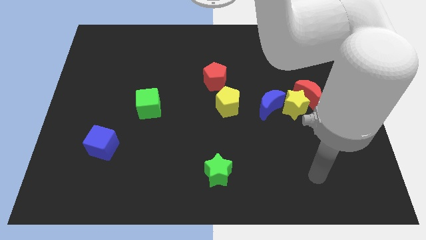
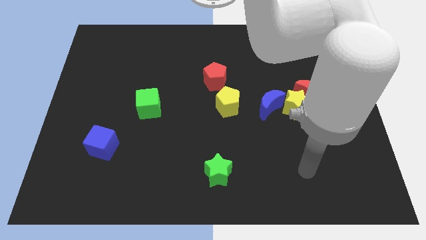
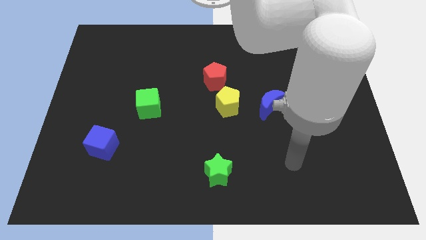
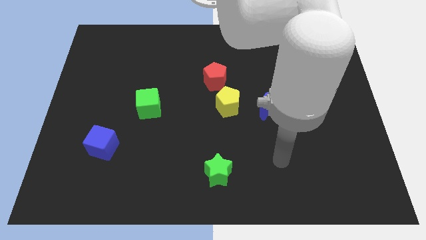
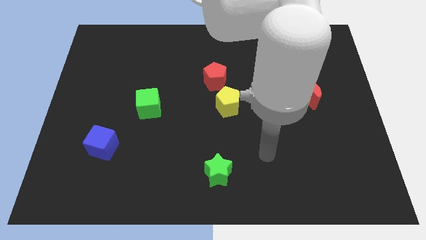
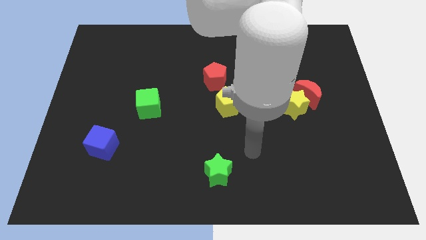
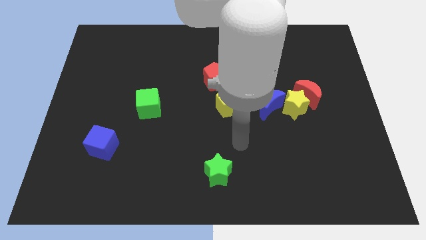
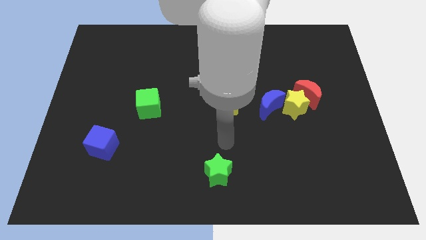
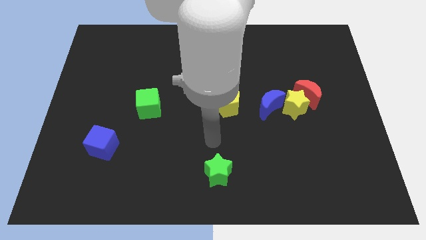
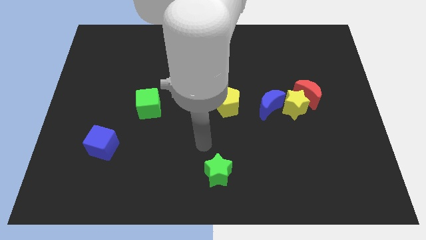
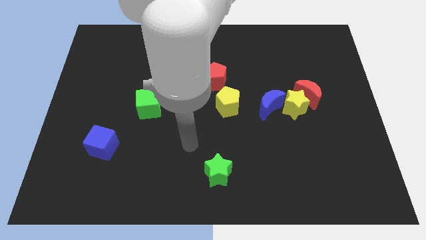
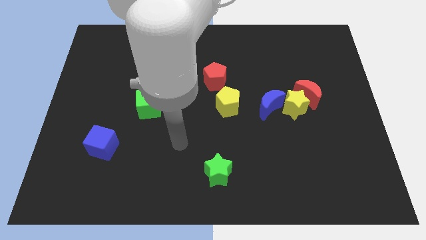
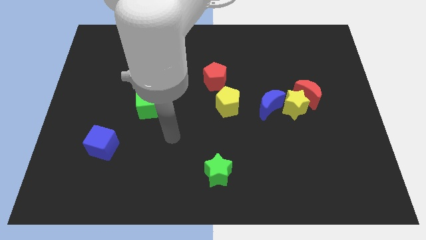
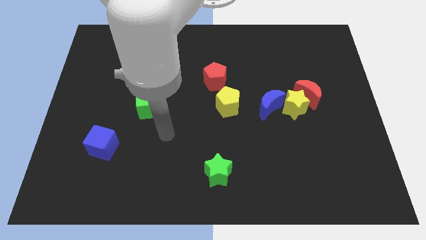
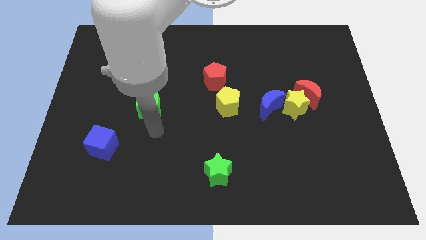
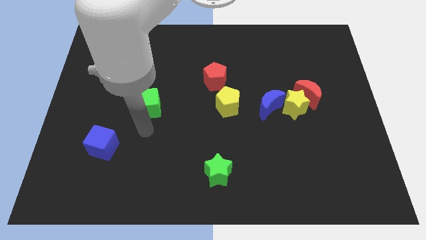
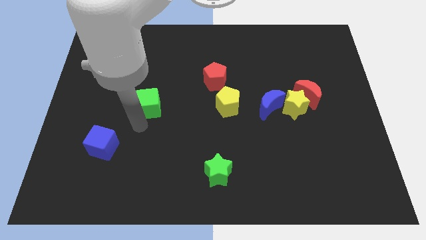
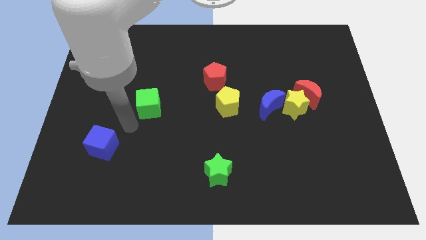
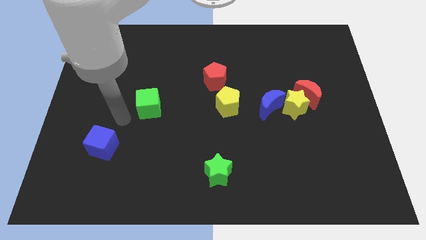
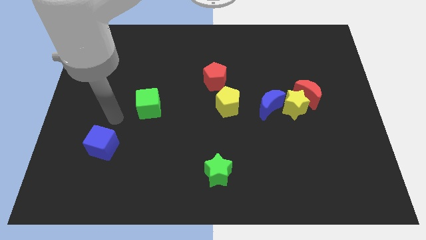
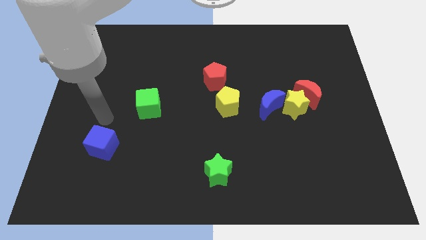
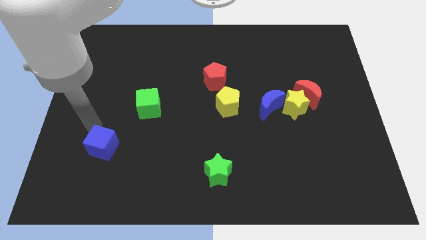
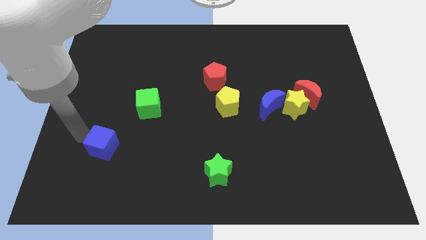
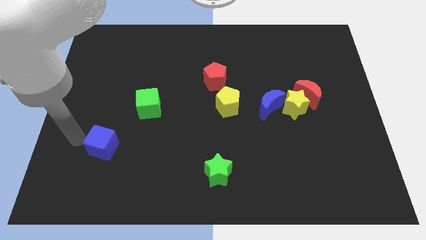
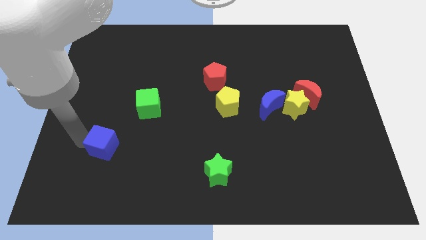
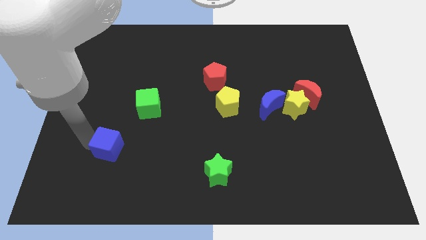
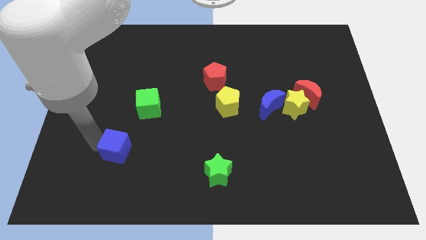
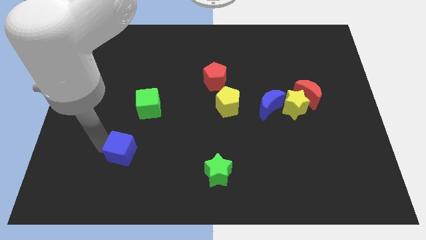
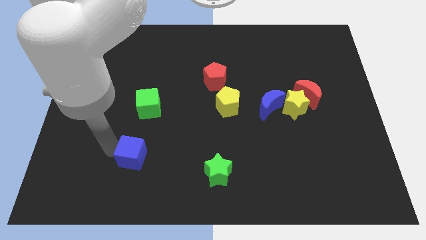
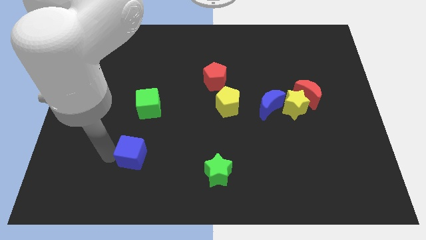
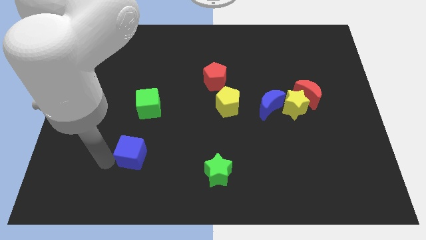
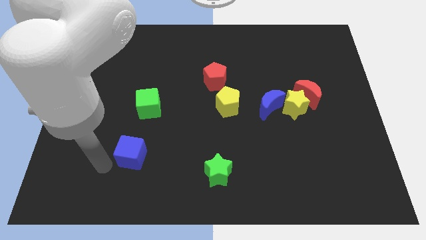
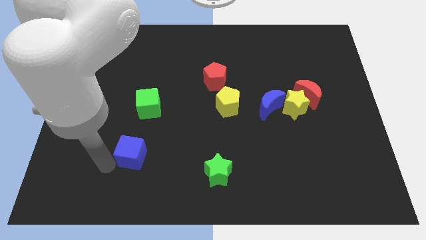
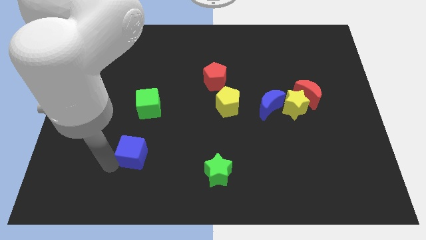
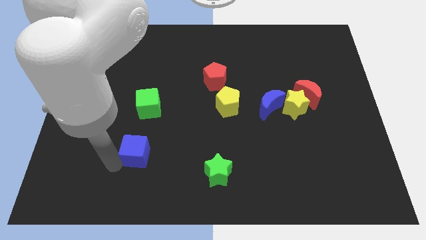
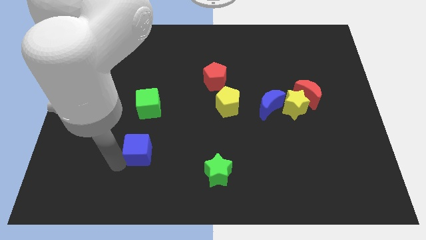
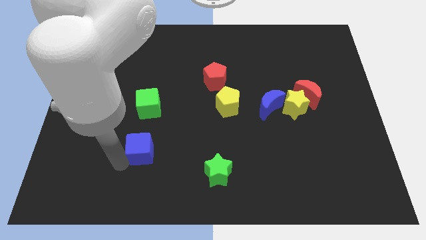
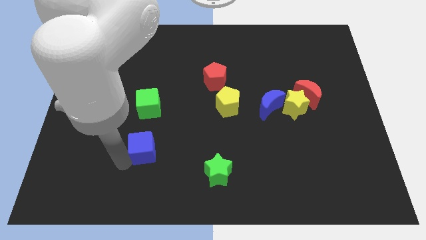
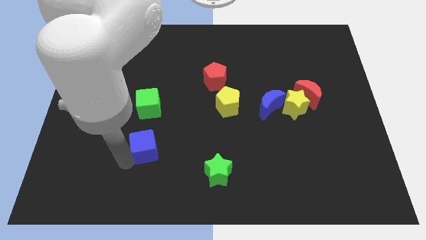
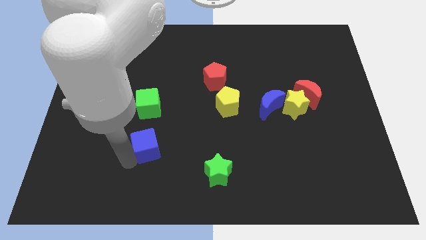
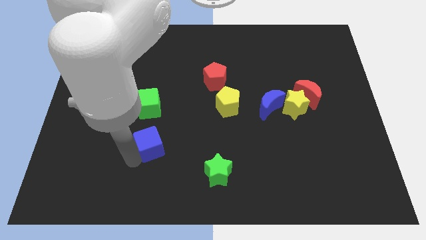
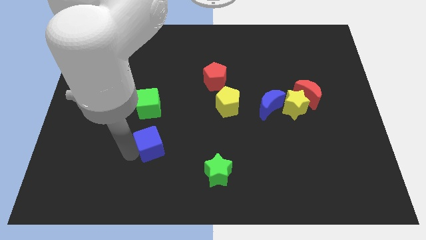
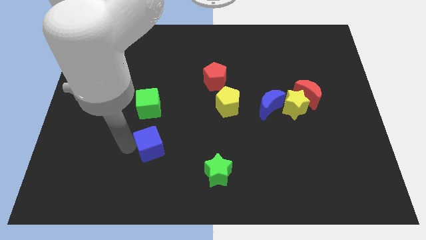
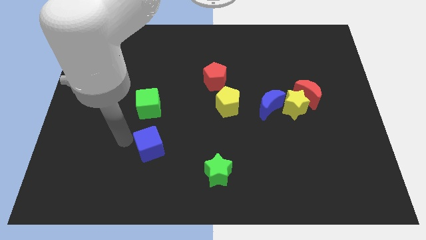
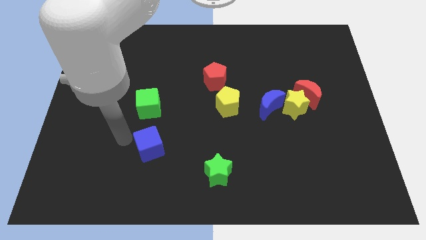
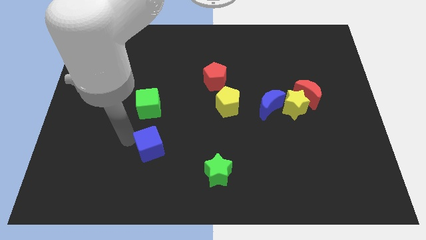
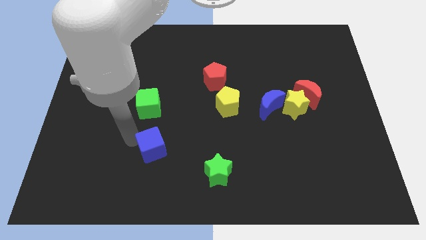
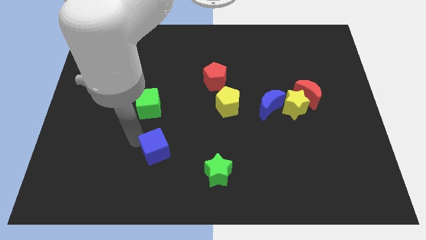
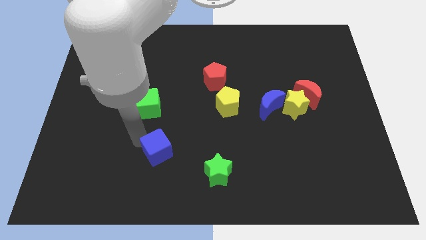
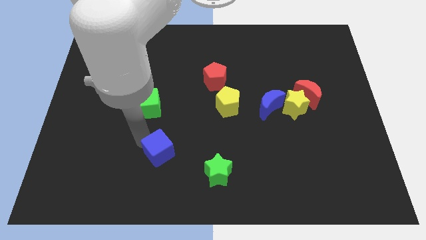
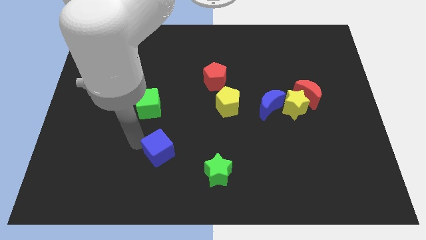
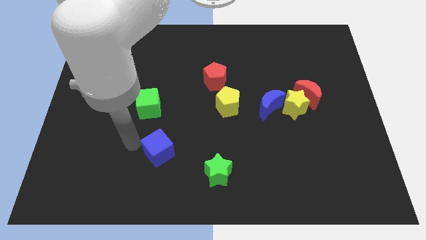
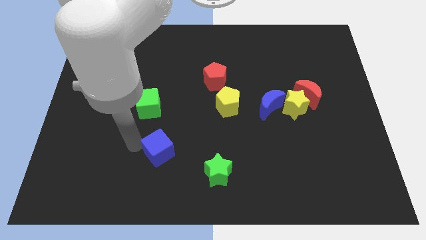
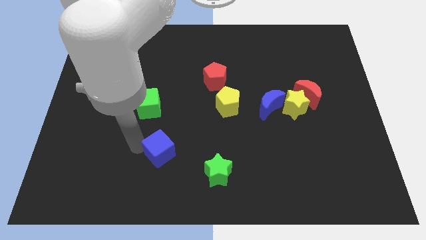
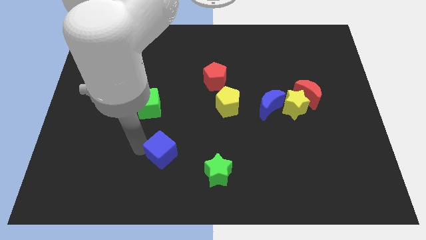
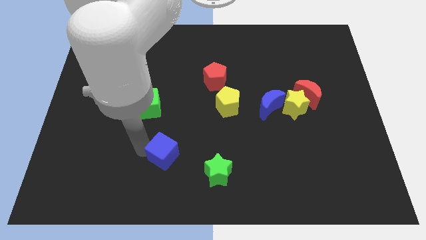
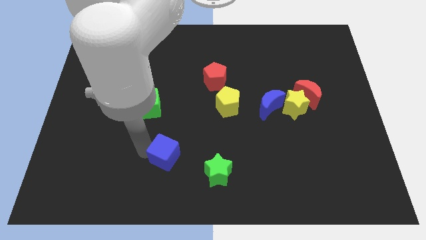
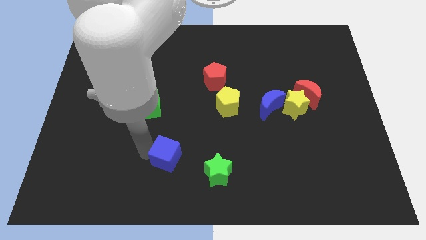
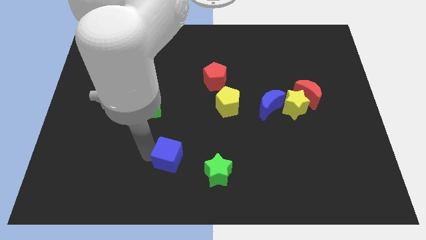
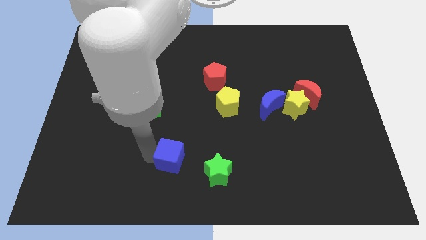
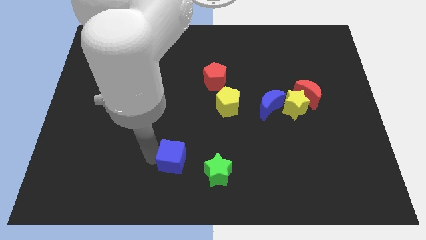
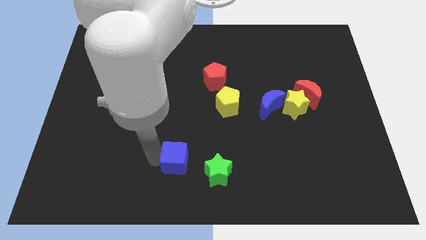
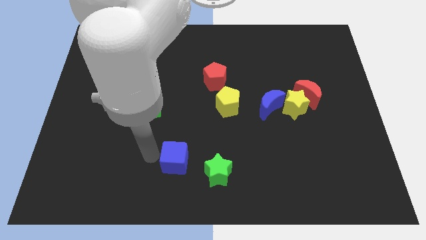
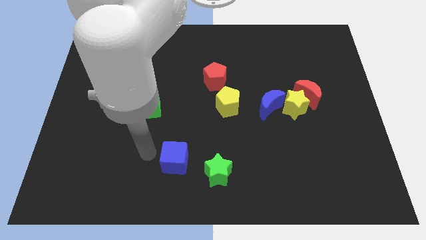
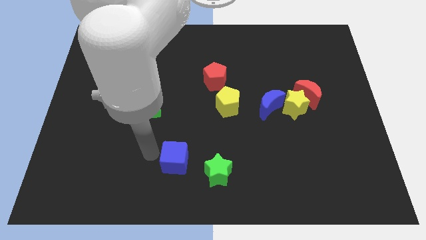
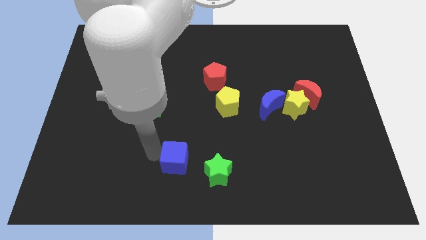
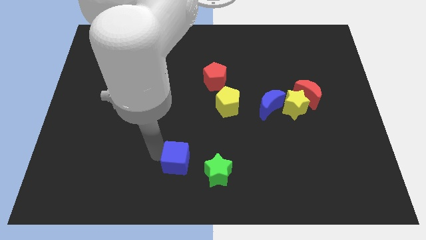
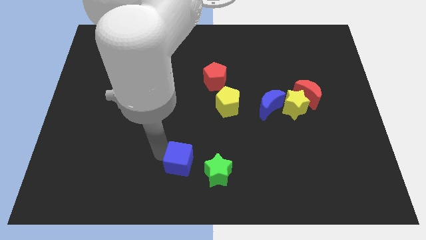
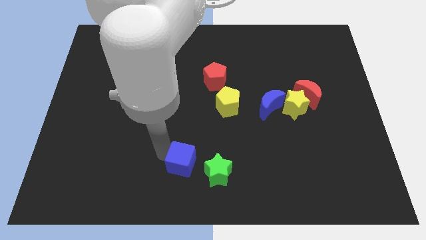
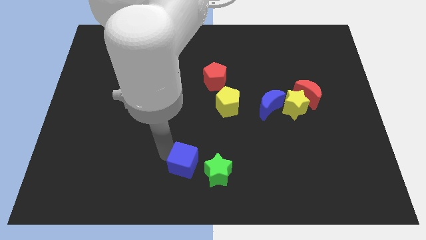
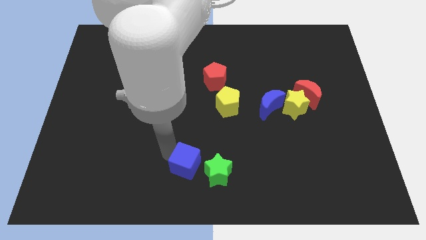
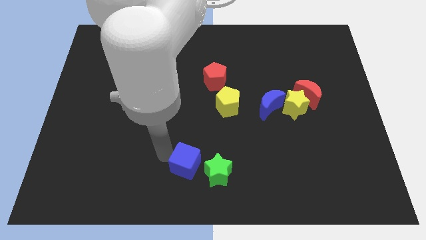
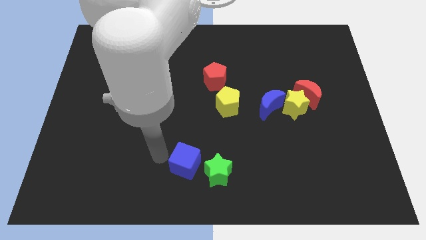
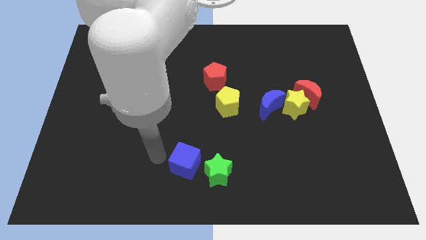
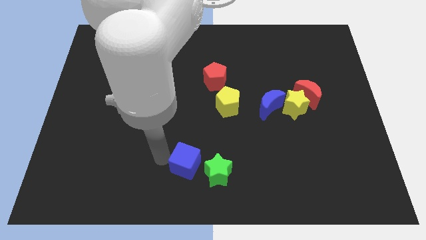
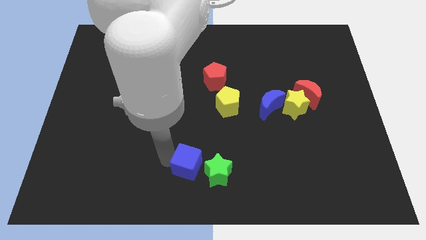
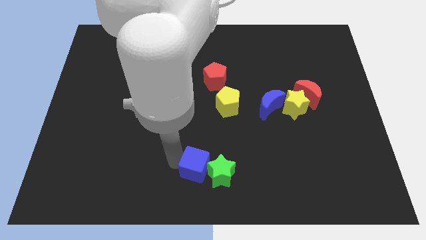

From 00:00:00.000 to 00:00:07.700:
put the blue cube close to the green star
